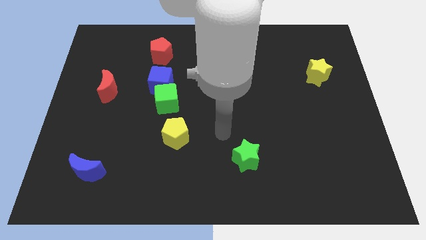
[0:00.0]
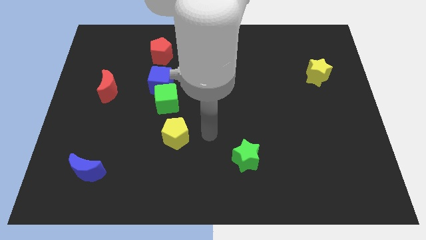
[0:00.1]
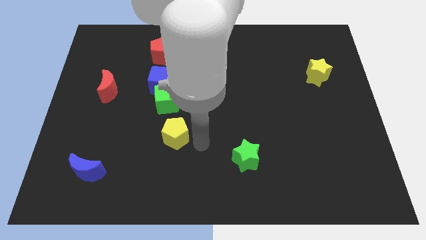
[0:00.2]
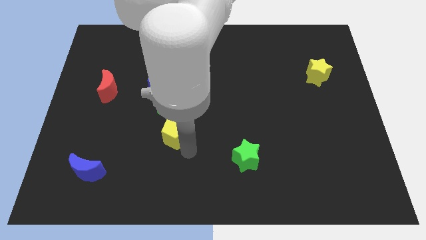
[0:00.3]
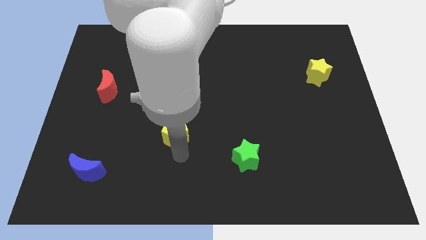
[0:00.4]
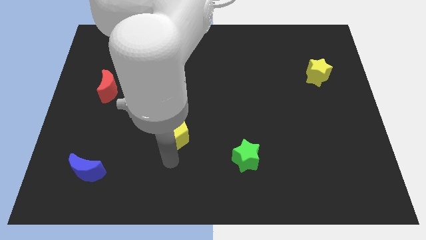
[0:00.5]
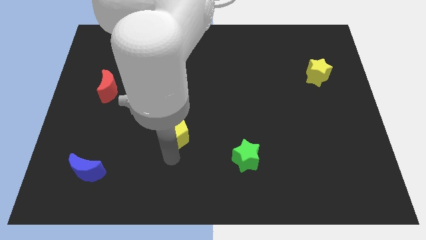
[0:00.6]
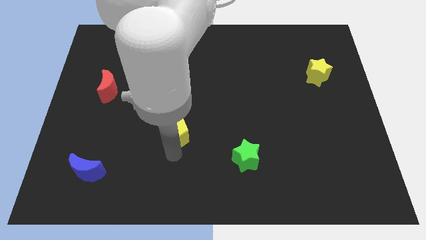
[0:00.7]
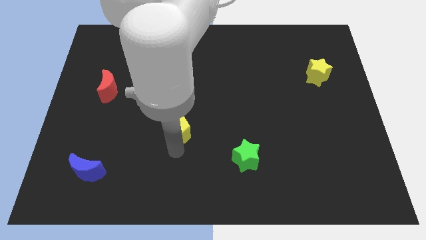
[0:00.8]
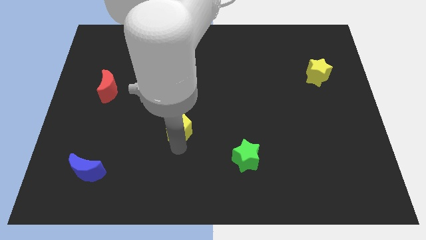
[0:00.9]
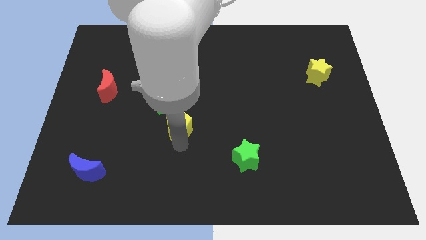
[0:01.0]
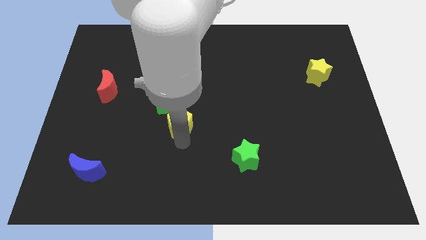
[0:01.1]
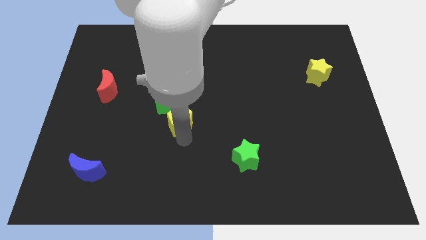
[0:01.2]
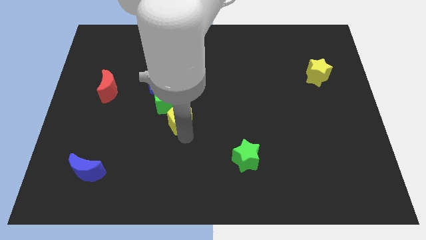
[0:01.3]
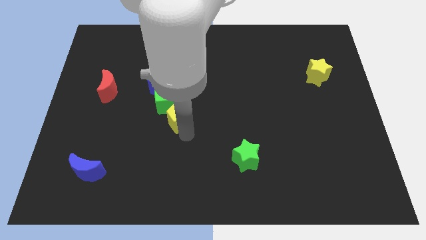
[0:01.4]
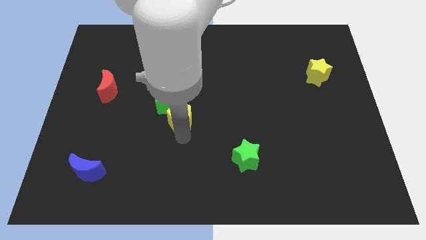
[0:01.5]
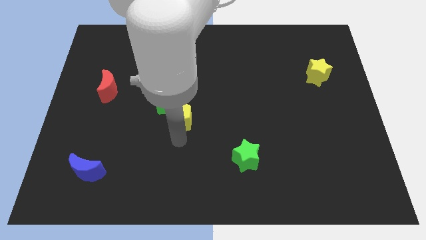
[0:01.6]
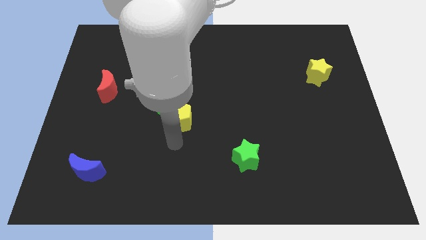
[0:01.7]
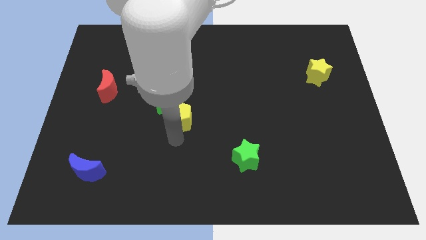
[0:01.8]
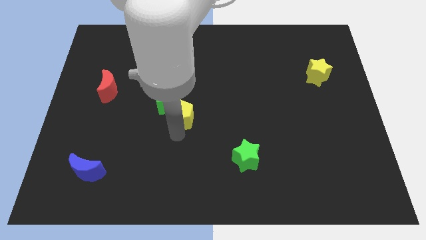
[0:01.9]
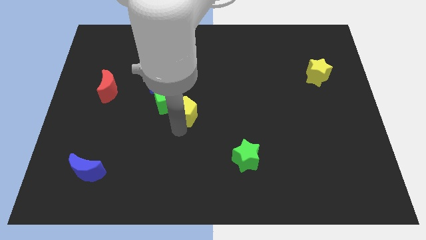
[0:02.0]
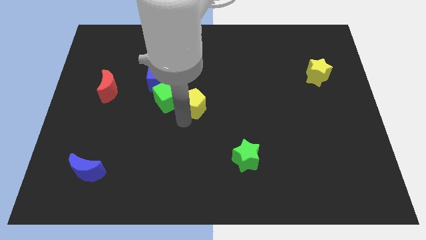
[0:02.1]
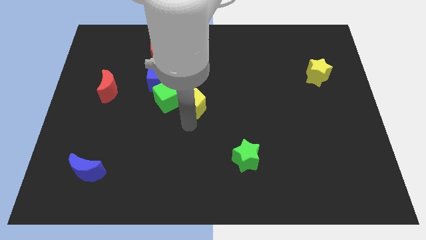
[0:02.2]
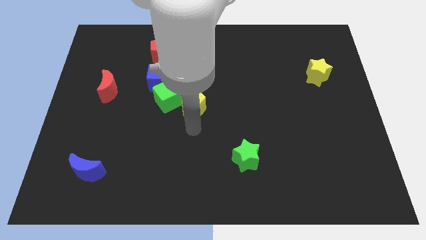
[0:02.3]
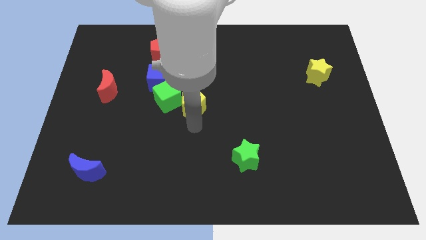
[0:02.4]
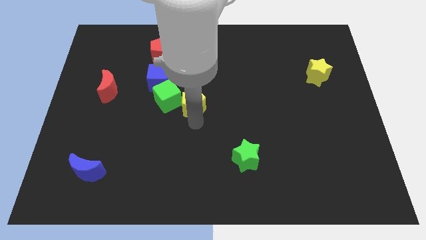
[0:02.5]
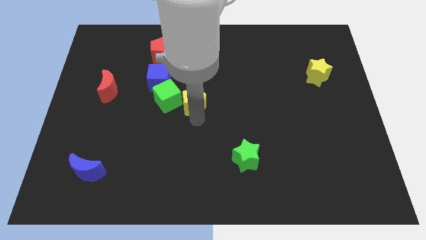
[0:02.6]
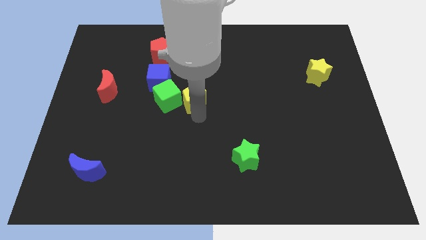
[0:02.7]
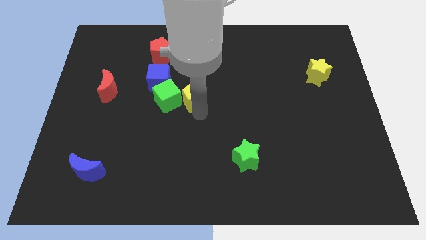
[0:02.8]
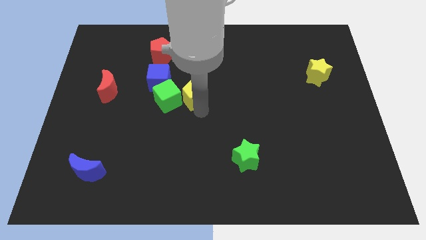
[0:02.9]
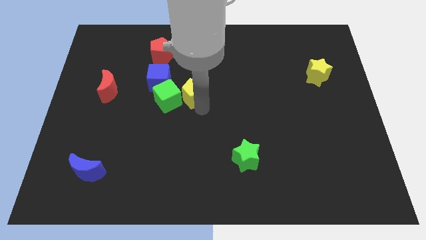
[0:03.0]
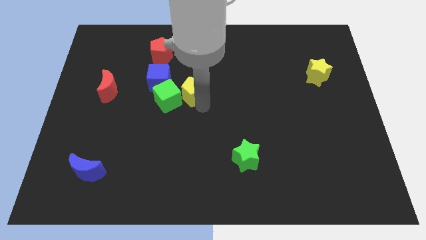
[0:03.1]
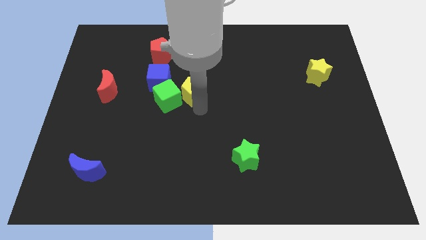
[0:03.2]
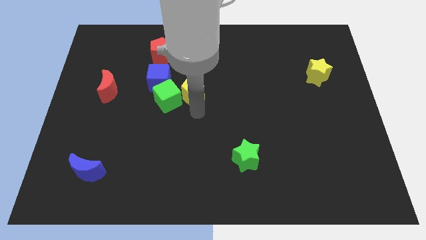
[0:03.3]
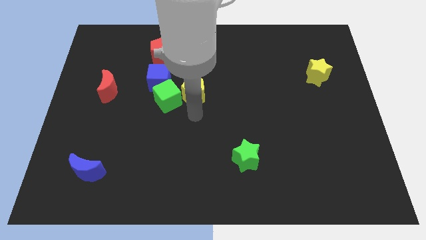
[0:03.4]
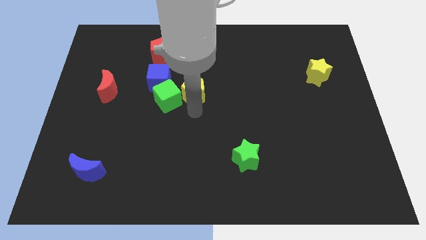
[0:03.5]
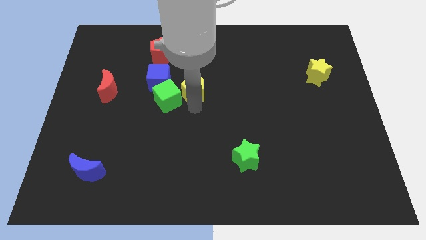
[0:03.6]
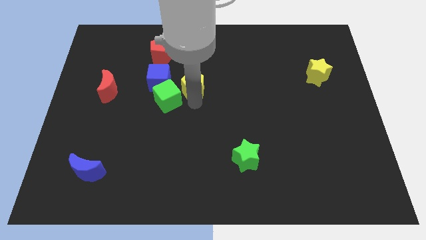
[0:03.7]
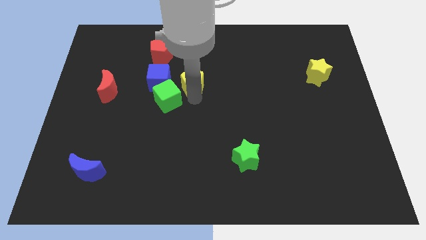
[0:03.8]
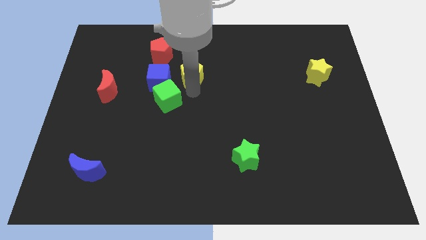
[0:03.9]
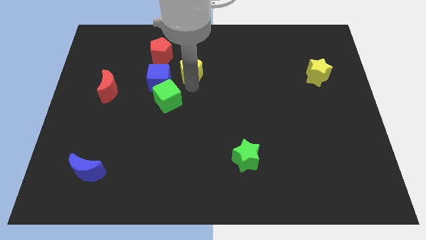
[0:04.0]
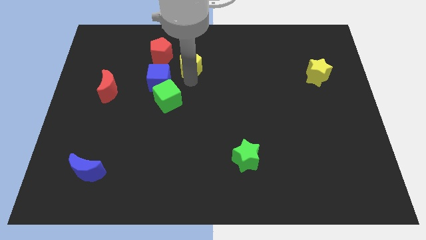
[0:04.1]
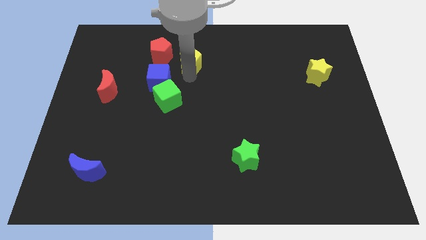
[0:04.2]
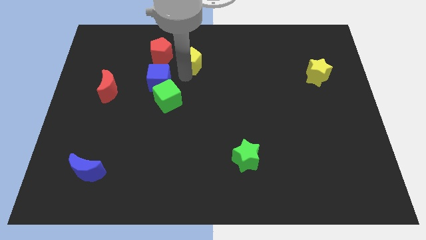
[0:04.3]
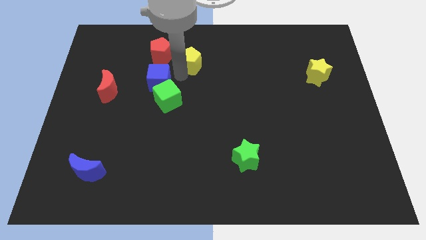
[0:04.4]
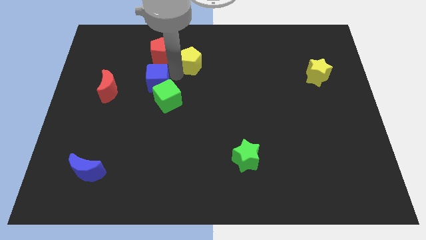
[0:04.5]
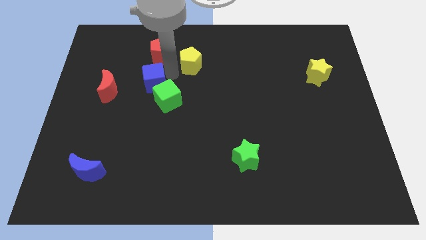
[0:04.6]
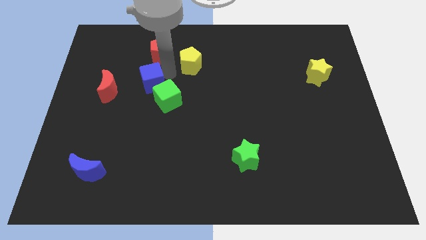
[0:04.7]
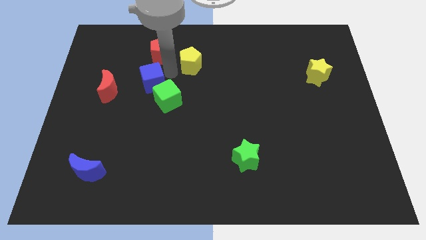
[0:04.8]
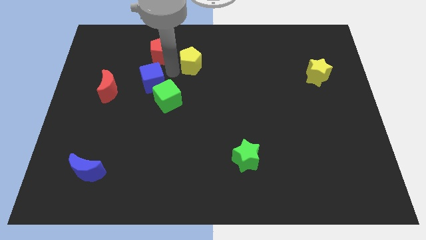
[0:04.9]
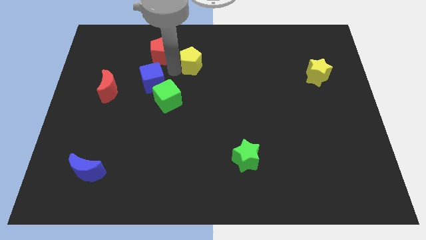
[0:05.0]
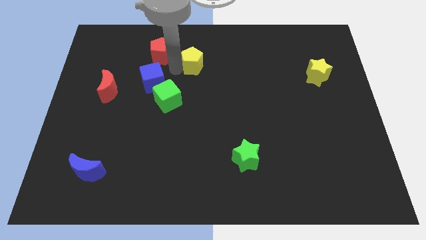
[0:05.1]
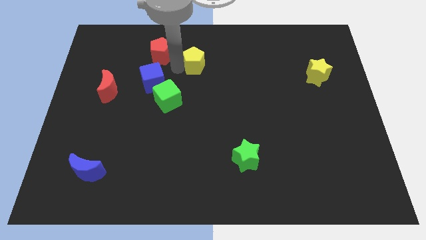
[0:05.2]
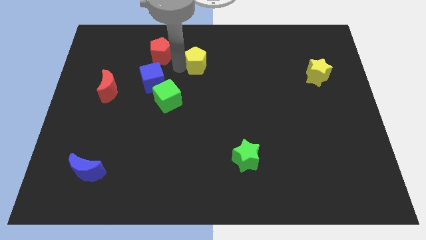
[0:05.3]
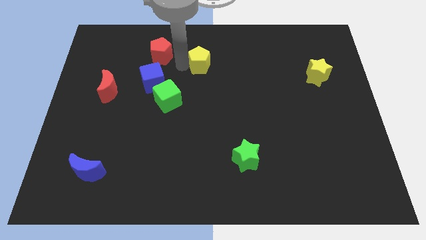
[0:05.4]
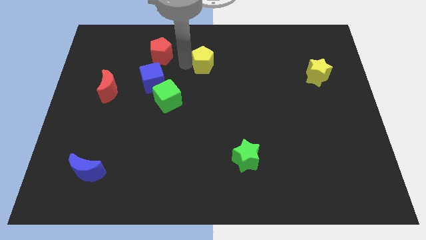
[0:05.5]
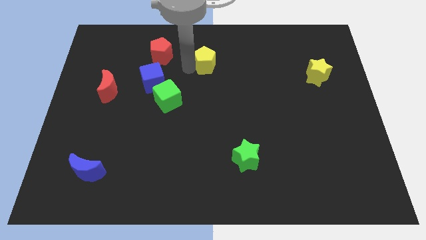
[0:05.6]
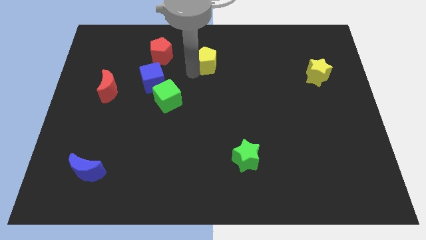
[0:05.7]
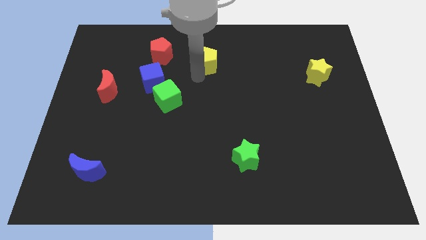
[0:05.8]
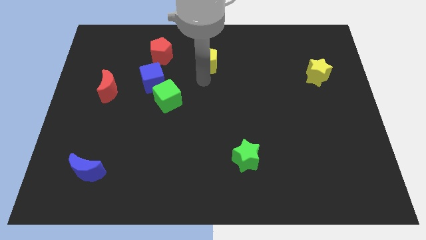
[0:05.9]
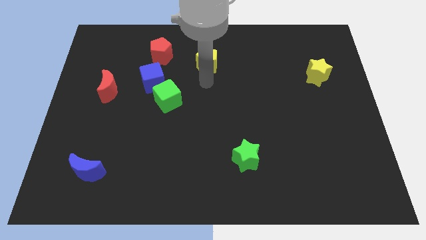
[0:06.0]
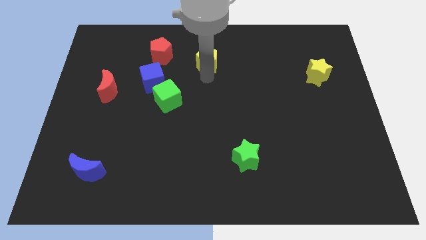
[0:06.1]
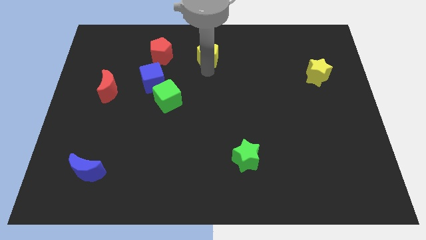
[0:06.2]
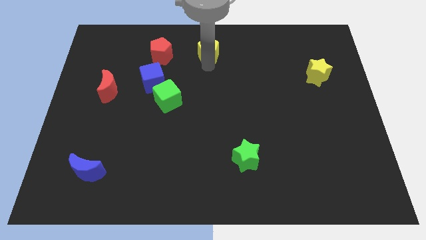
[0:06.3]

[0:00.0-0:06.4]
slide the yellow pentagon to the towards your base
